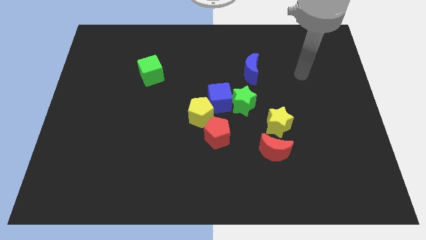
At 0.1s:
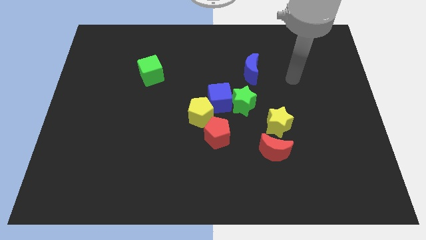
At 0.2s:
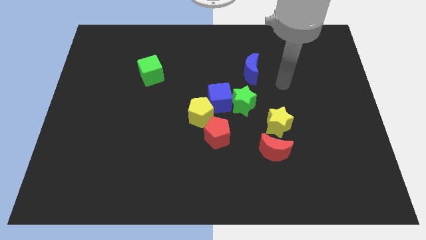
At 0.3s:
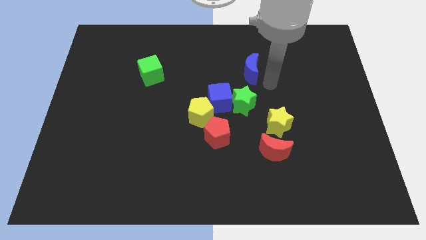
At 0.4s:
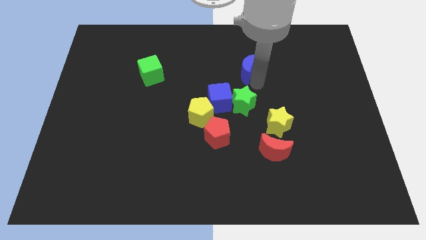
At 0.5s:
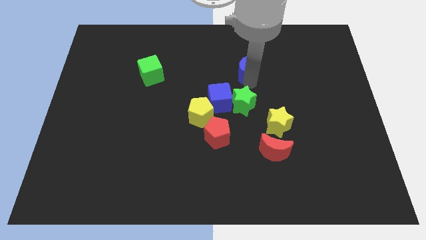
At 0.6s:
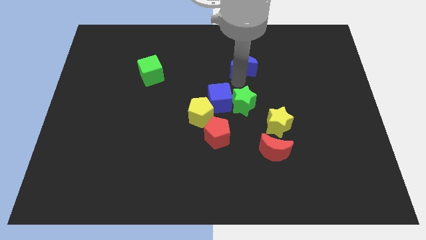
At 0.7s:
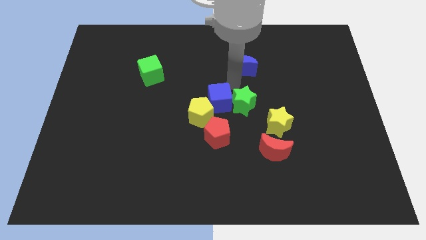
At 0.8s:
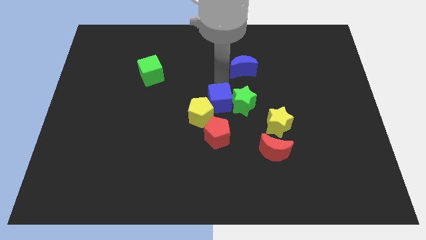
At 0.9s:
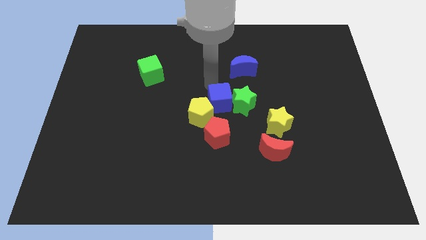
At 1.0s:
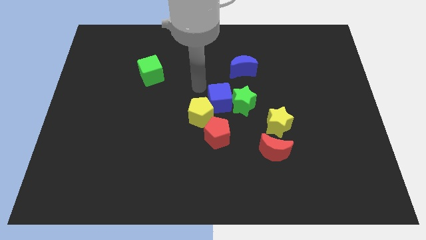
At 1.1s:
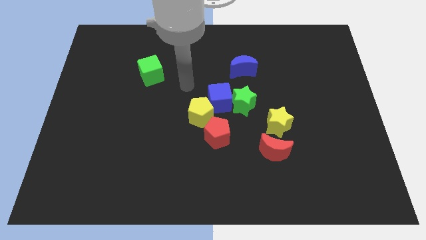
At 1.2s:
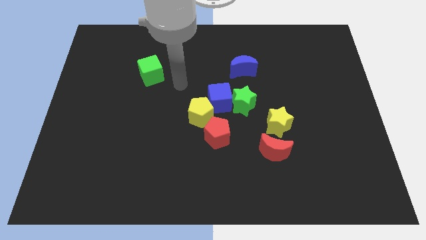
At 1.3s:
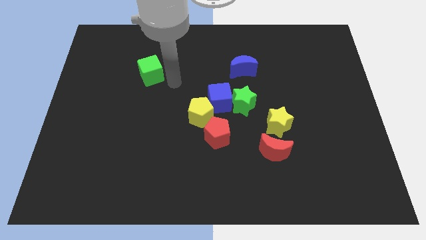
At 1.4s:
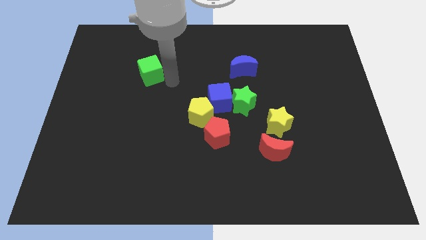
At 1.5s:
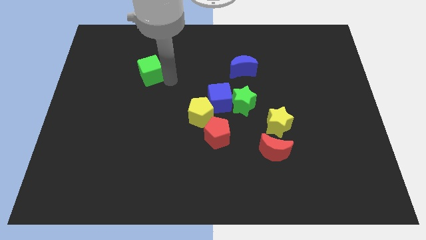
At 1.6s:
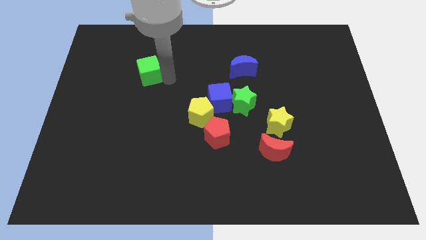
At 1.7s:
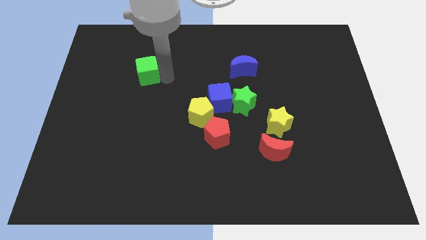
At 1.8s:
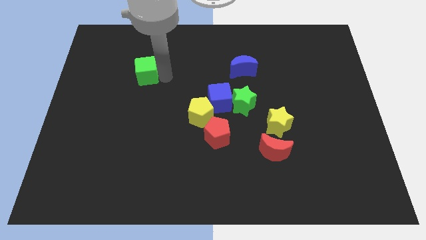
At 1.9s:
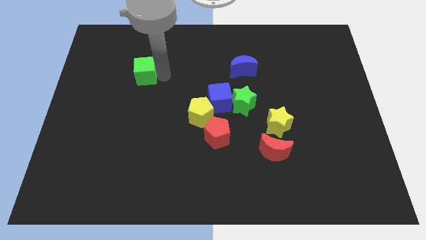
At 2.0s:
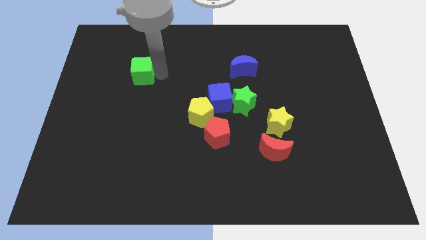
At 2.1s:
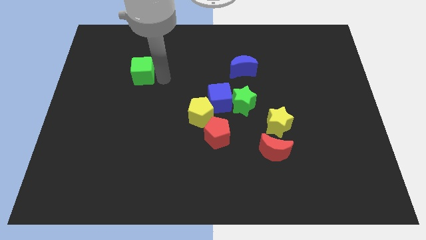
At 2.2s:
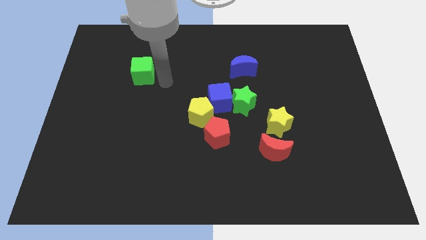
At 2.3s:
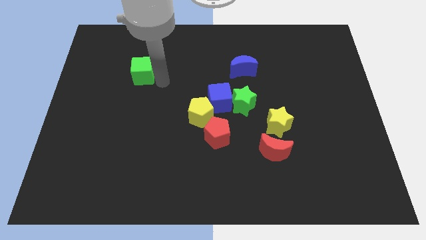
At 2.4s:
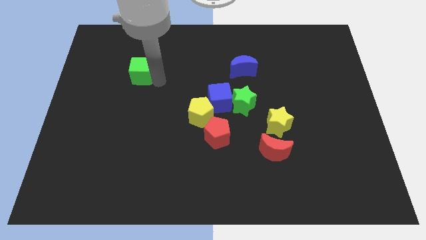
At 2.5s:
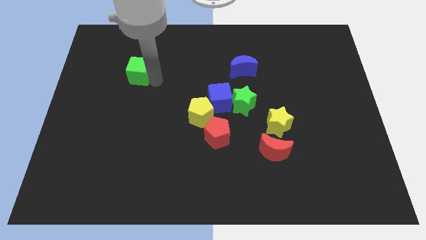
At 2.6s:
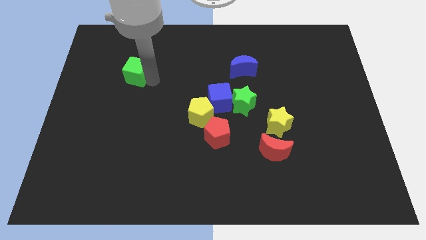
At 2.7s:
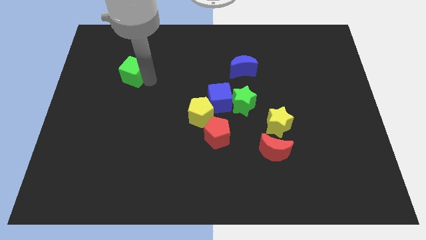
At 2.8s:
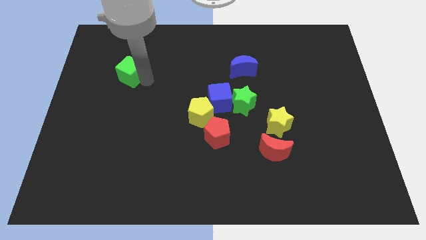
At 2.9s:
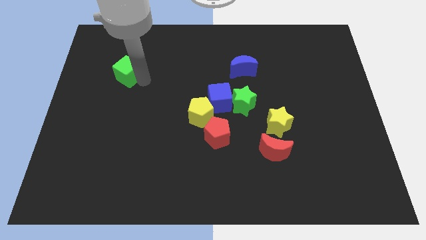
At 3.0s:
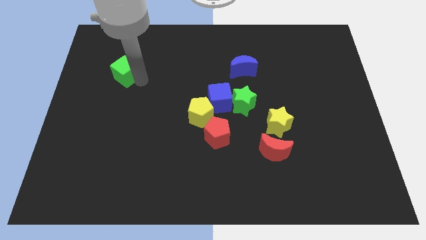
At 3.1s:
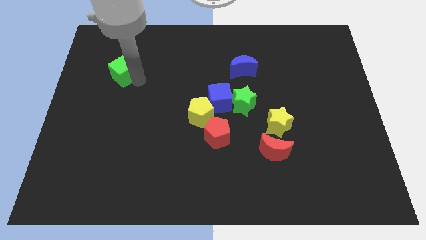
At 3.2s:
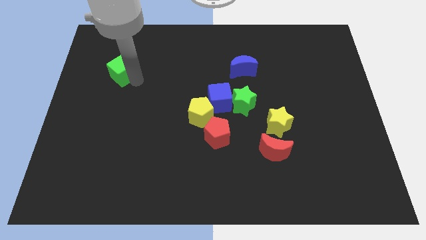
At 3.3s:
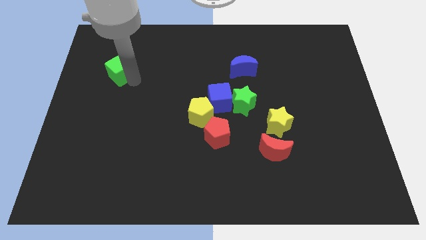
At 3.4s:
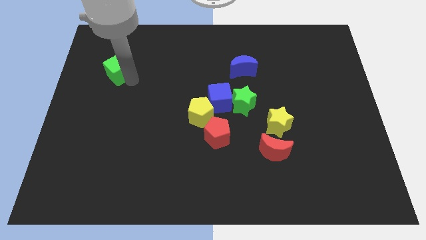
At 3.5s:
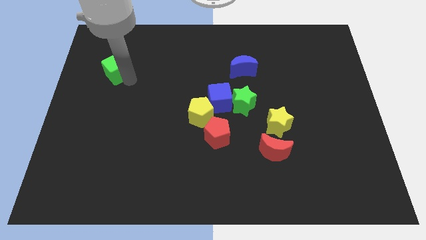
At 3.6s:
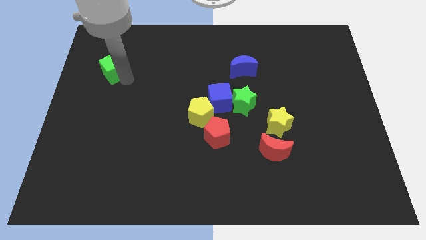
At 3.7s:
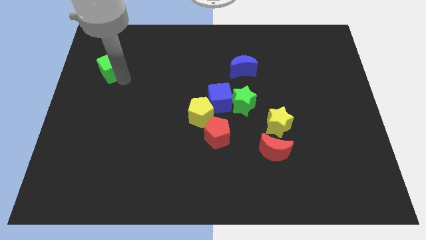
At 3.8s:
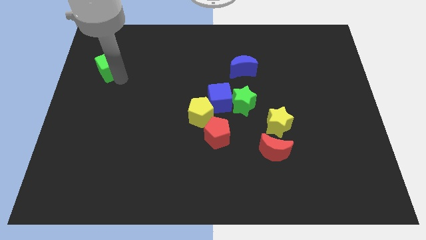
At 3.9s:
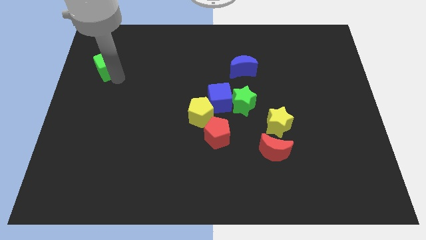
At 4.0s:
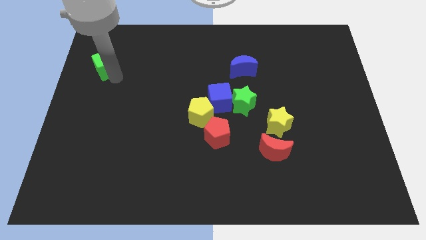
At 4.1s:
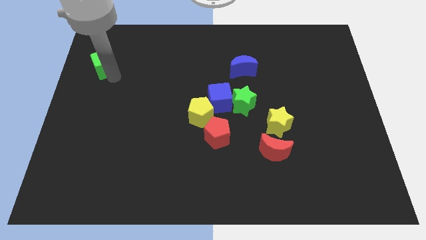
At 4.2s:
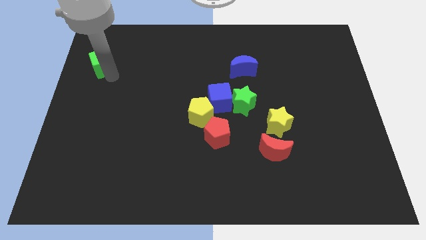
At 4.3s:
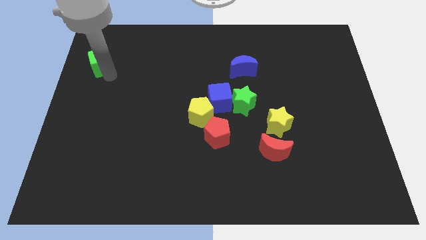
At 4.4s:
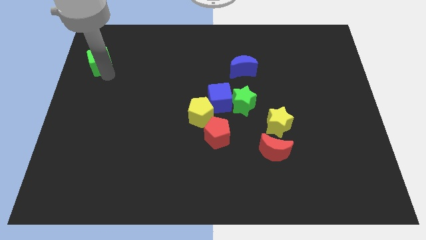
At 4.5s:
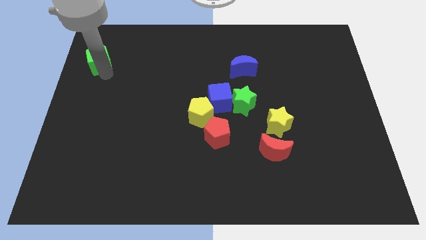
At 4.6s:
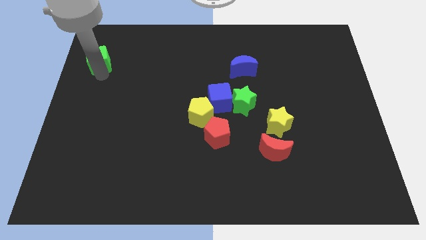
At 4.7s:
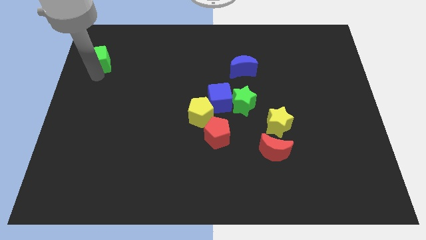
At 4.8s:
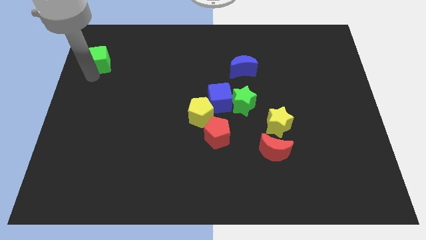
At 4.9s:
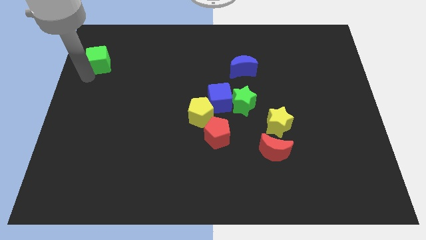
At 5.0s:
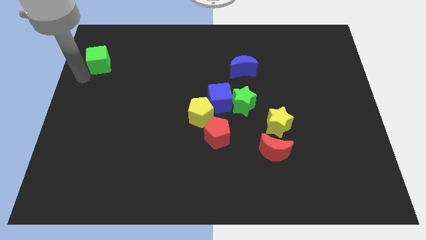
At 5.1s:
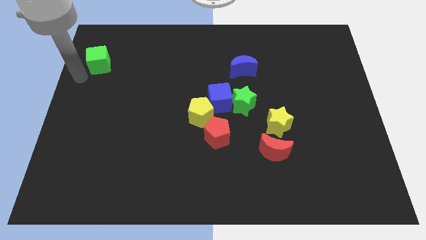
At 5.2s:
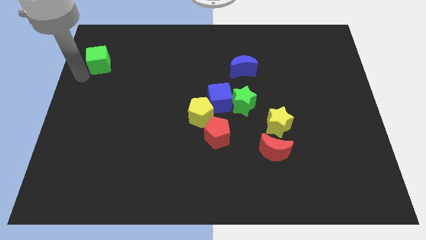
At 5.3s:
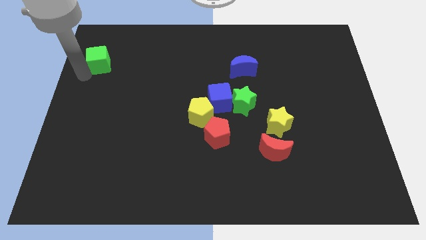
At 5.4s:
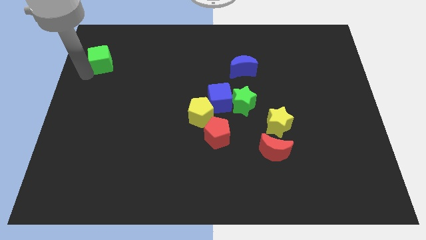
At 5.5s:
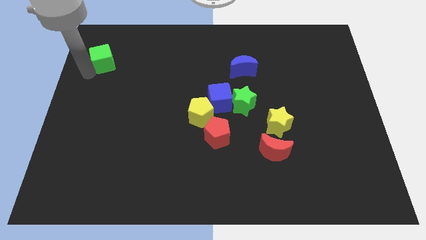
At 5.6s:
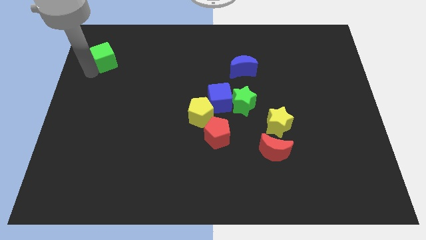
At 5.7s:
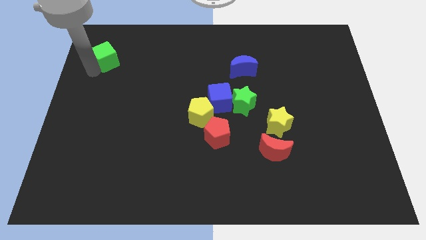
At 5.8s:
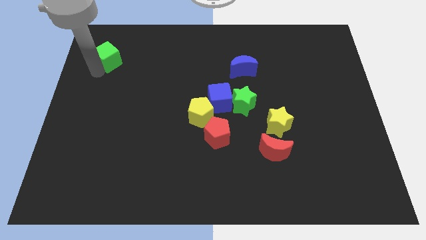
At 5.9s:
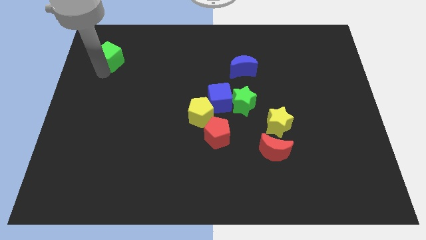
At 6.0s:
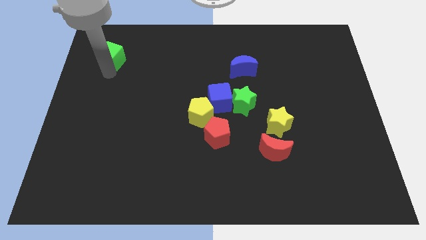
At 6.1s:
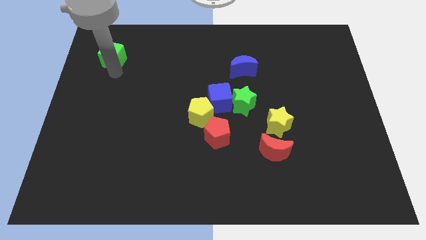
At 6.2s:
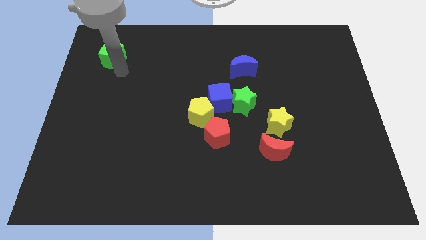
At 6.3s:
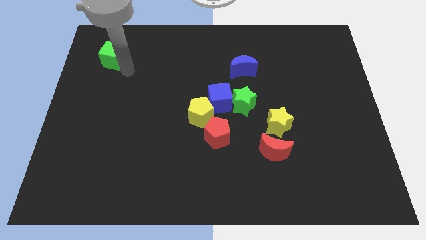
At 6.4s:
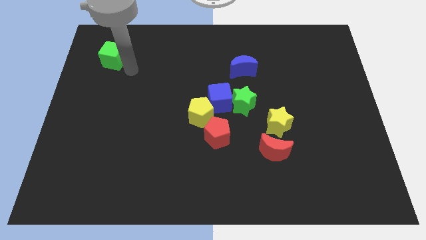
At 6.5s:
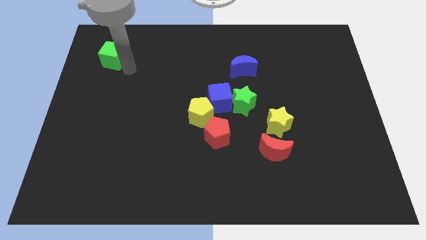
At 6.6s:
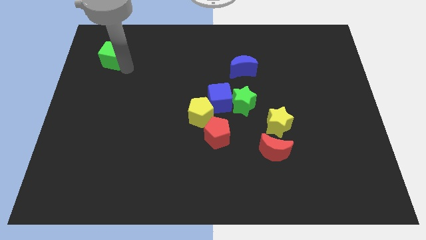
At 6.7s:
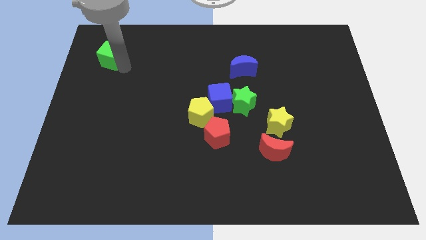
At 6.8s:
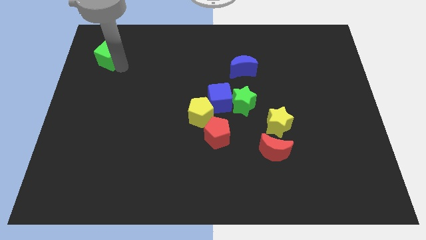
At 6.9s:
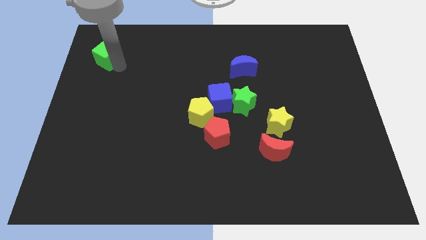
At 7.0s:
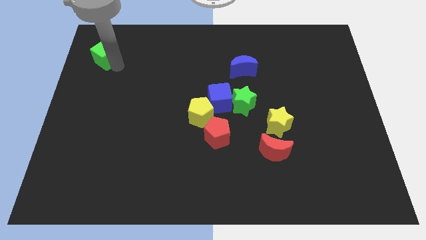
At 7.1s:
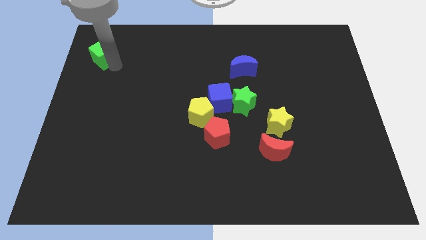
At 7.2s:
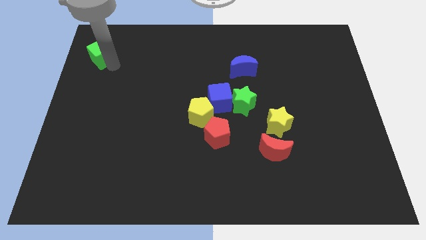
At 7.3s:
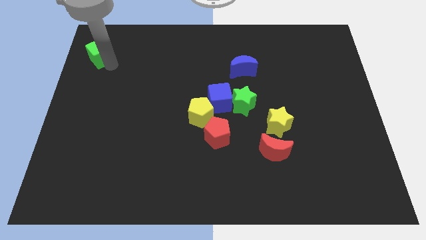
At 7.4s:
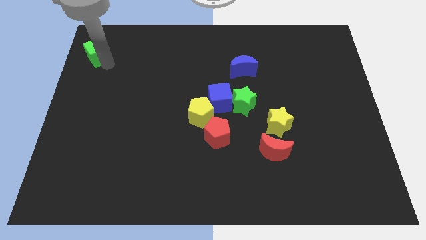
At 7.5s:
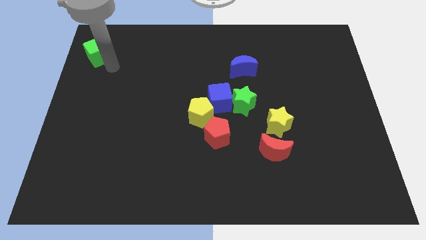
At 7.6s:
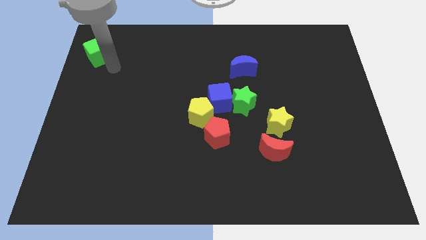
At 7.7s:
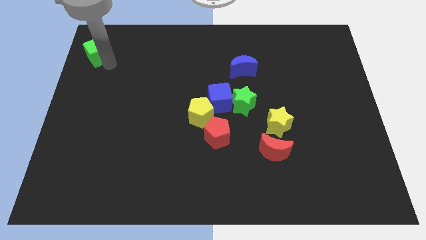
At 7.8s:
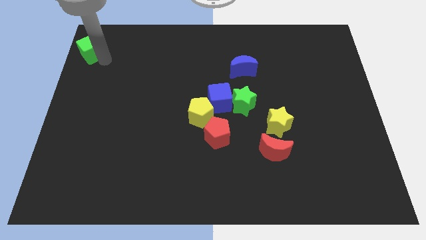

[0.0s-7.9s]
move the green cube to the top left
